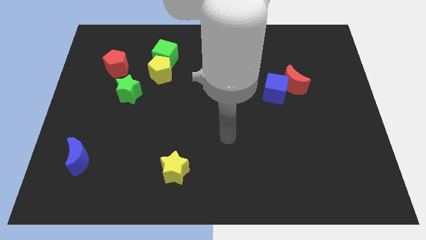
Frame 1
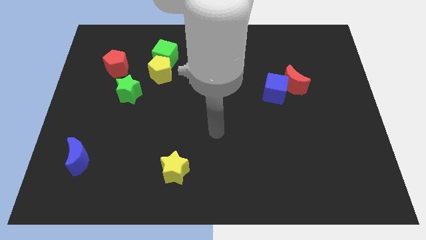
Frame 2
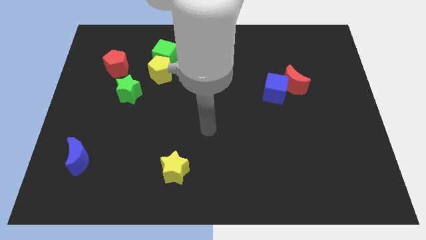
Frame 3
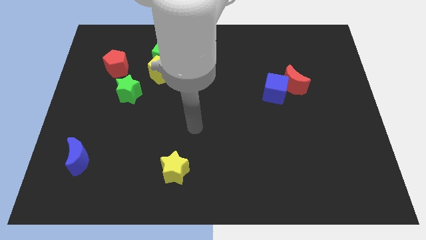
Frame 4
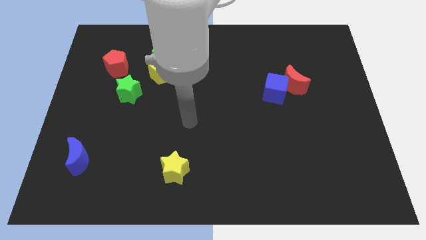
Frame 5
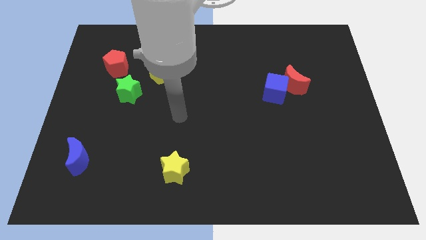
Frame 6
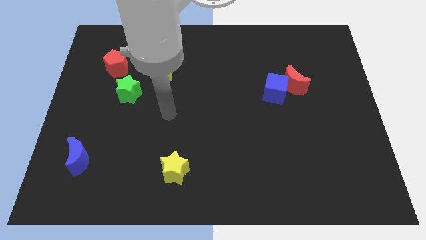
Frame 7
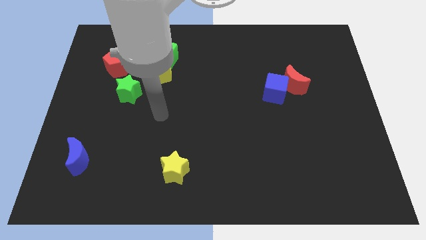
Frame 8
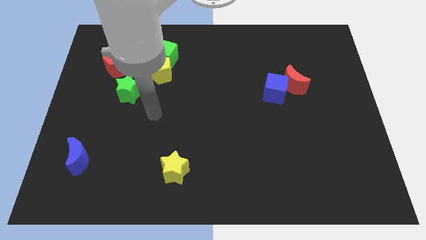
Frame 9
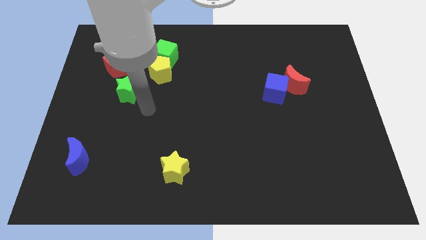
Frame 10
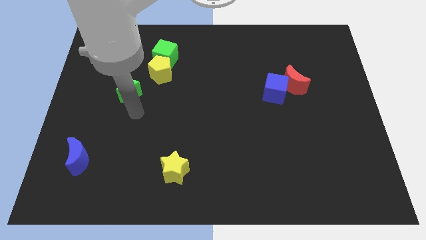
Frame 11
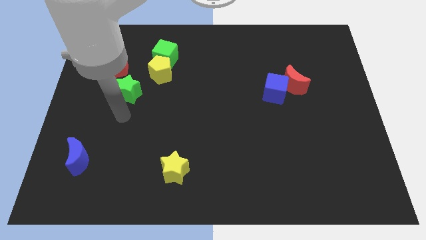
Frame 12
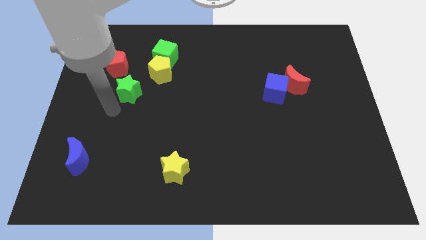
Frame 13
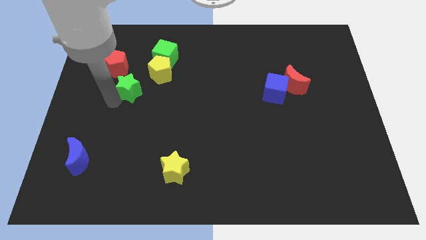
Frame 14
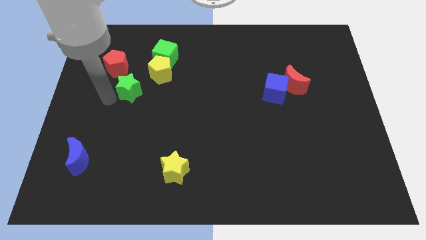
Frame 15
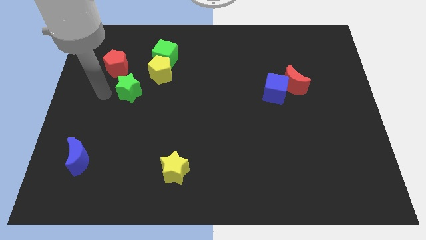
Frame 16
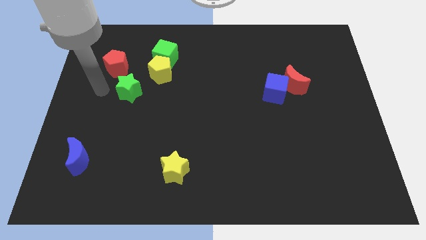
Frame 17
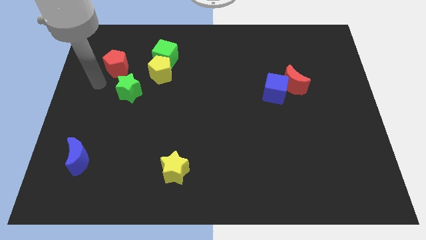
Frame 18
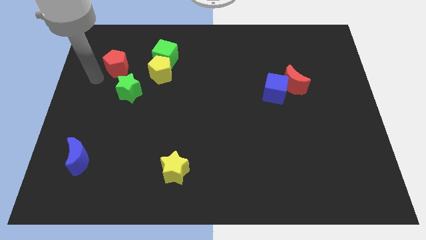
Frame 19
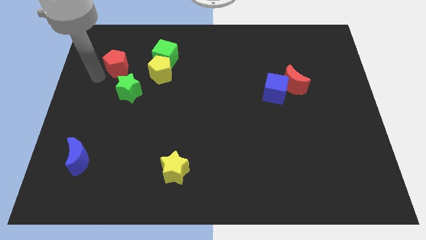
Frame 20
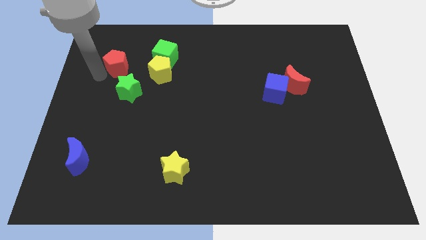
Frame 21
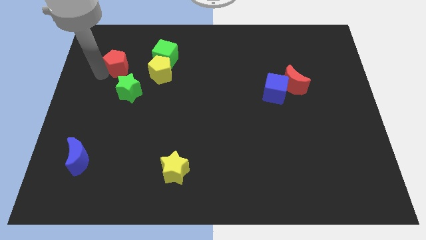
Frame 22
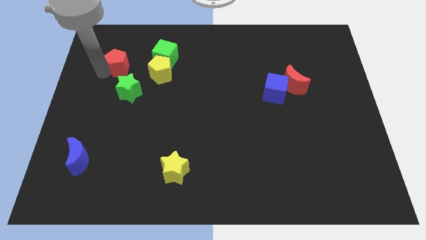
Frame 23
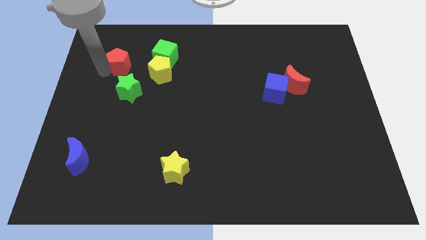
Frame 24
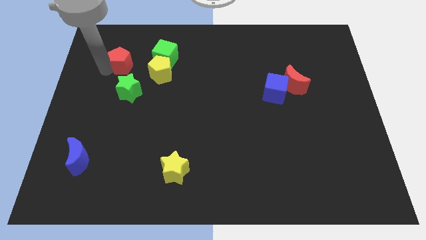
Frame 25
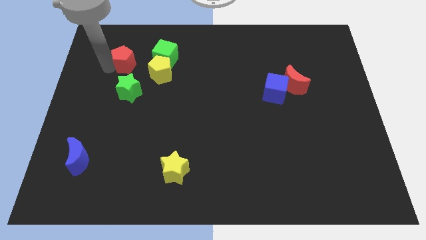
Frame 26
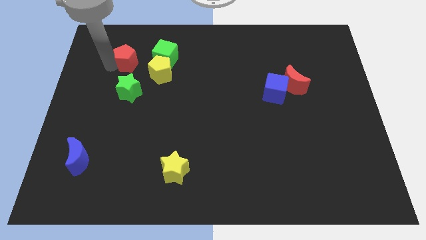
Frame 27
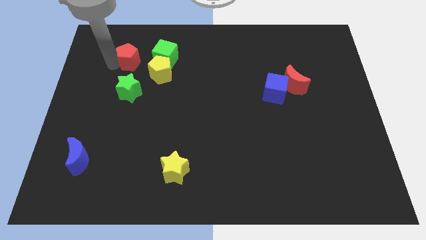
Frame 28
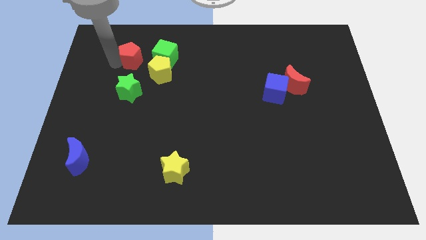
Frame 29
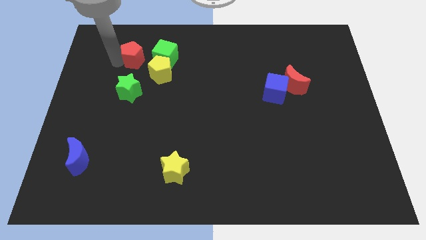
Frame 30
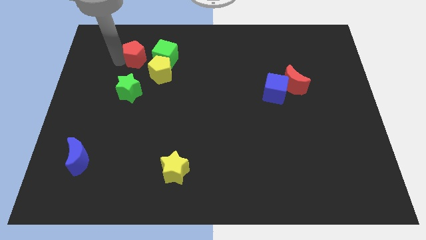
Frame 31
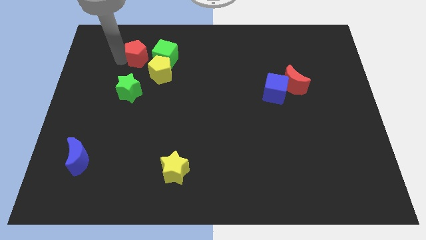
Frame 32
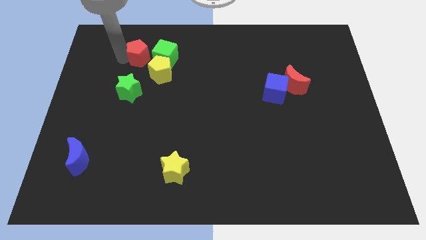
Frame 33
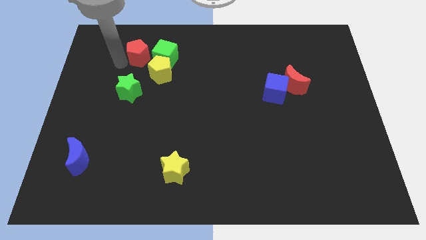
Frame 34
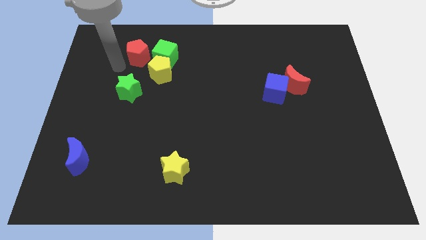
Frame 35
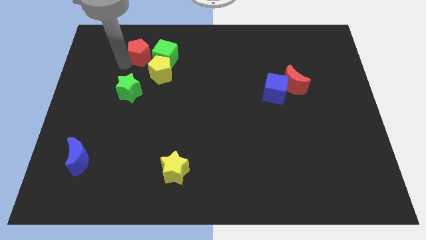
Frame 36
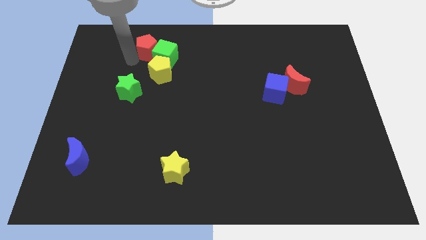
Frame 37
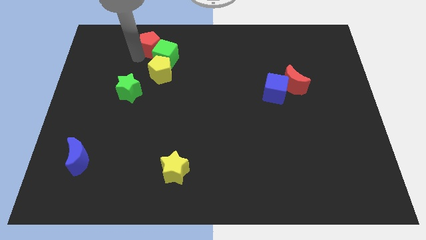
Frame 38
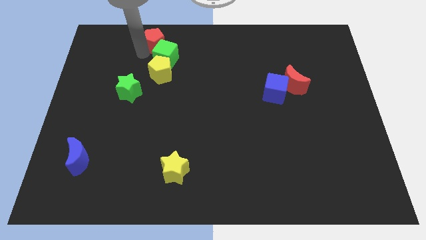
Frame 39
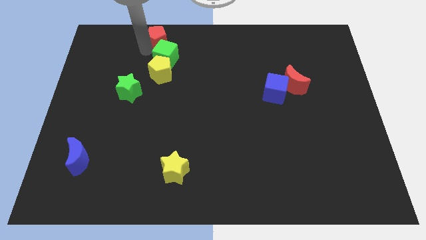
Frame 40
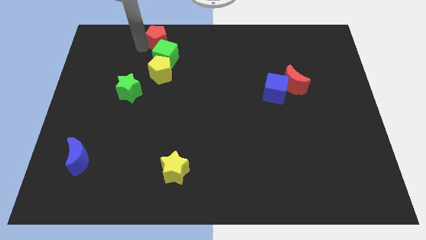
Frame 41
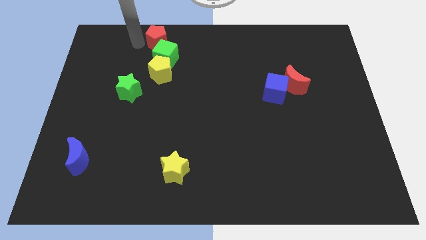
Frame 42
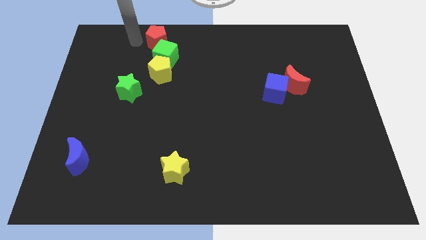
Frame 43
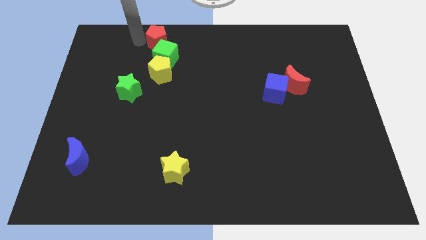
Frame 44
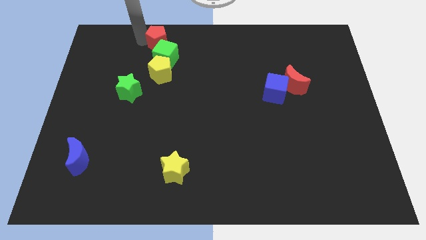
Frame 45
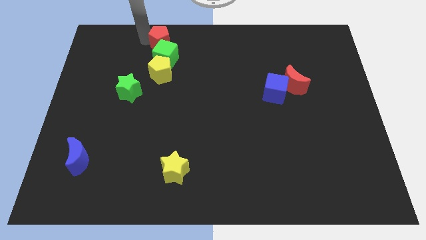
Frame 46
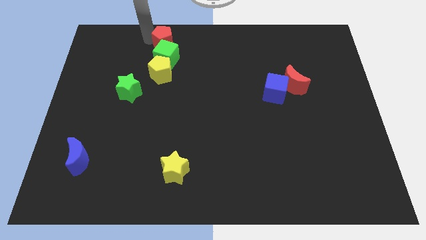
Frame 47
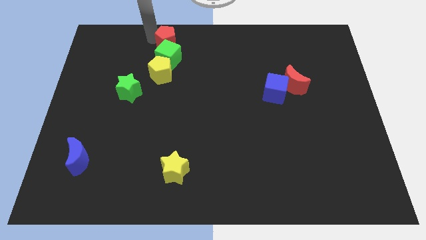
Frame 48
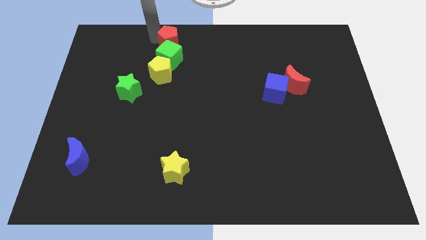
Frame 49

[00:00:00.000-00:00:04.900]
move the red pentagon to the towards your base

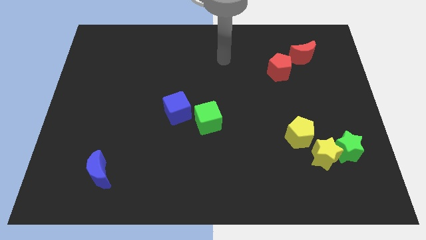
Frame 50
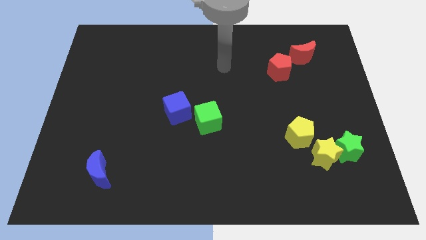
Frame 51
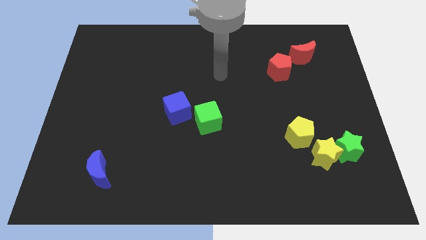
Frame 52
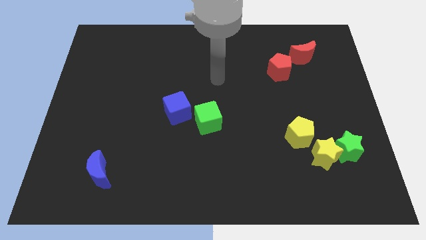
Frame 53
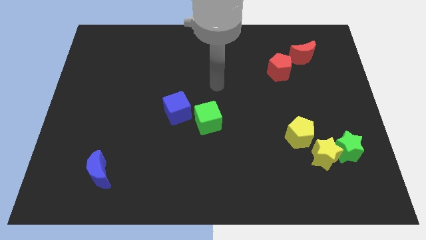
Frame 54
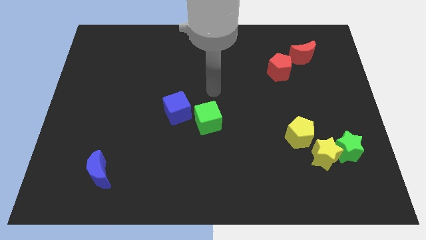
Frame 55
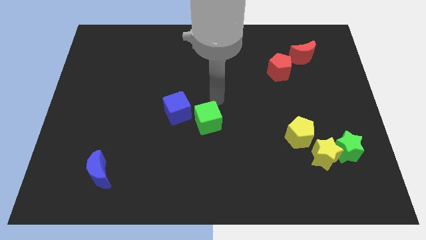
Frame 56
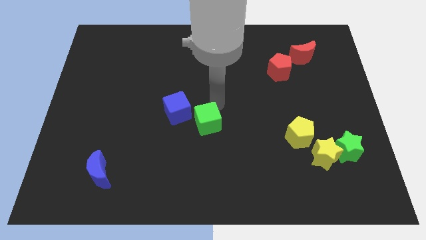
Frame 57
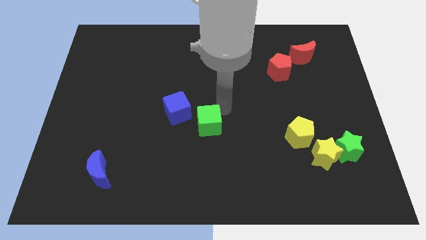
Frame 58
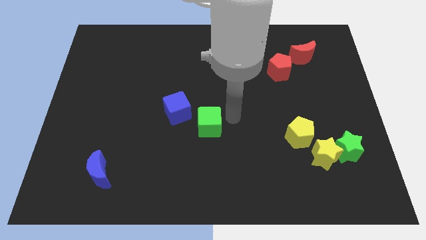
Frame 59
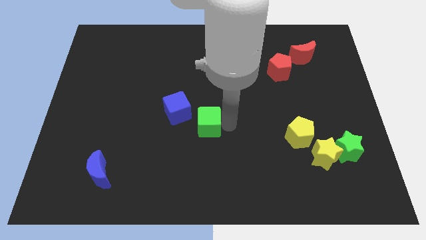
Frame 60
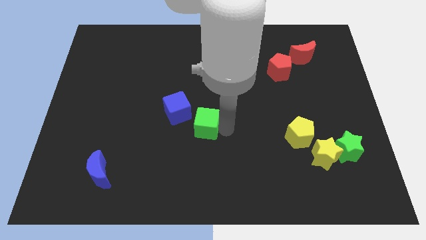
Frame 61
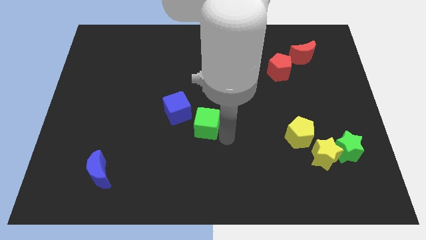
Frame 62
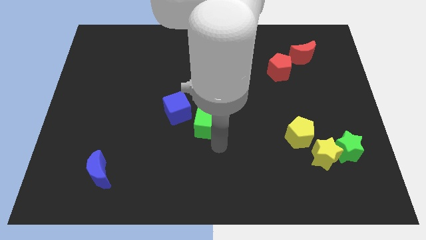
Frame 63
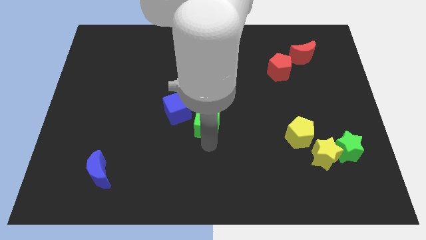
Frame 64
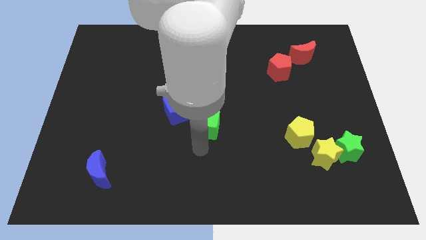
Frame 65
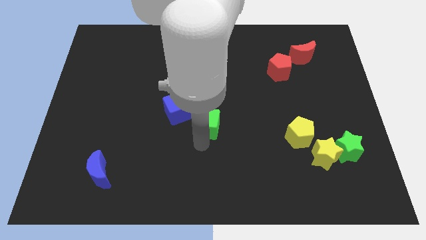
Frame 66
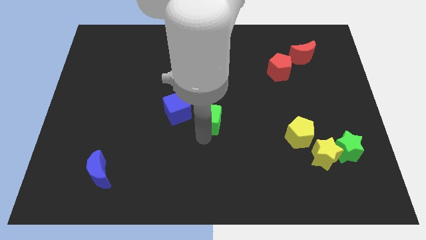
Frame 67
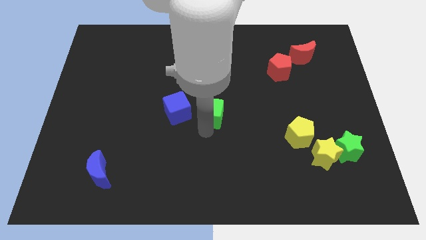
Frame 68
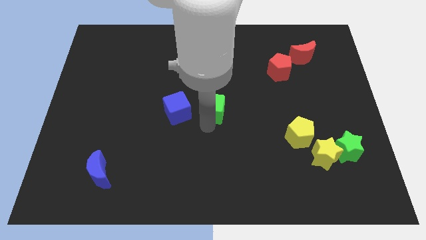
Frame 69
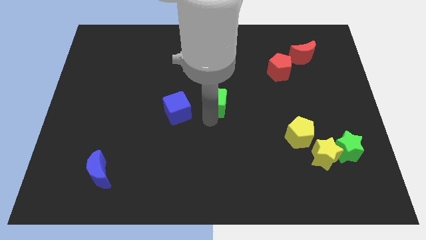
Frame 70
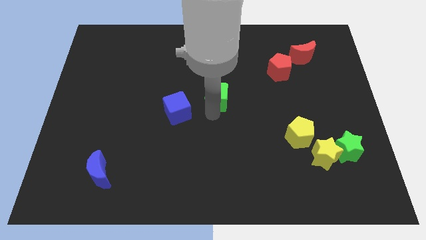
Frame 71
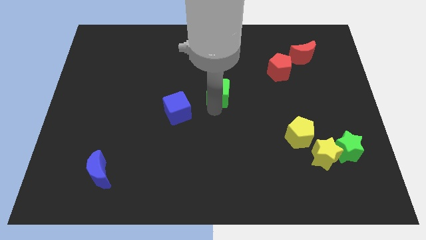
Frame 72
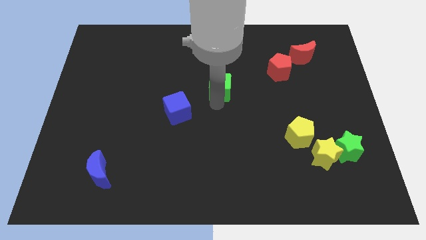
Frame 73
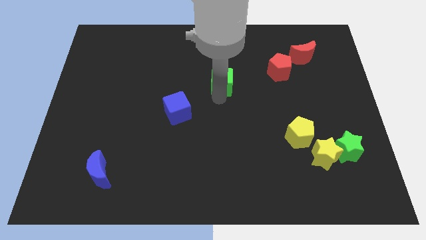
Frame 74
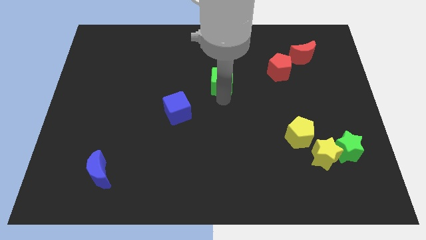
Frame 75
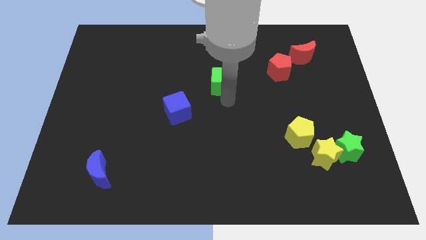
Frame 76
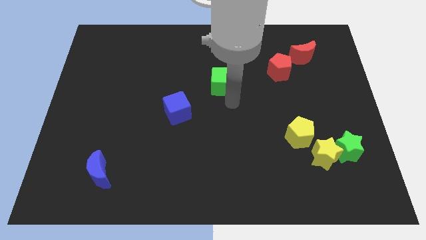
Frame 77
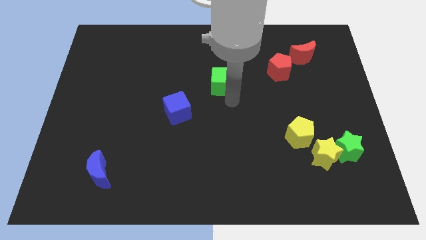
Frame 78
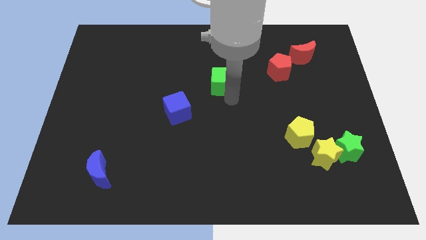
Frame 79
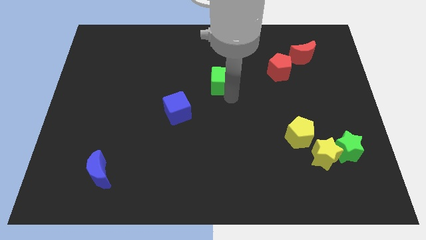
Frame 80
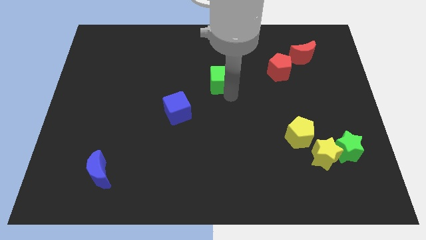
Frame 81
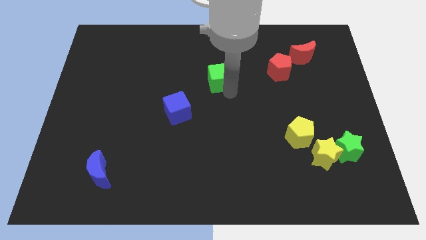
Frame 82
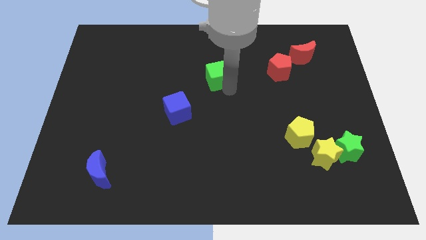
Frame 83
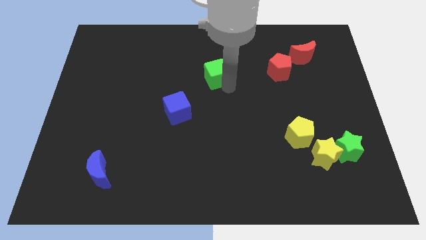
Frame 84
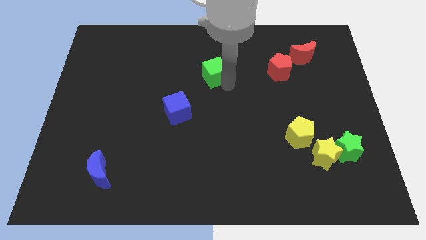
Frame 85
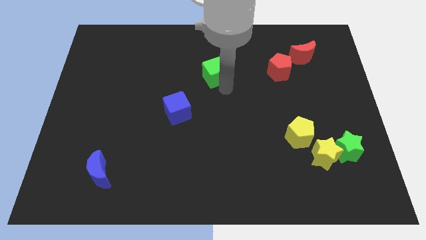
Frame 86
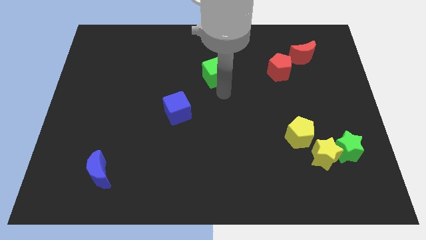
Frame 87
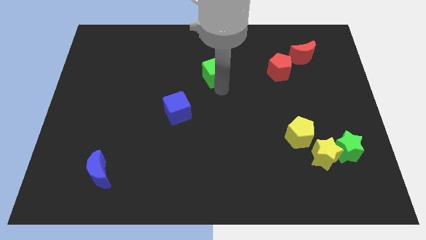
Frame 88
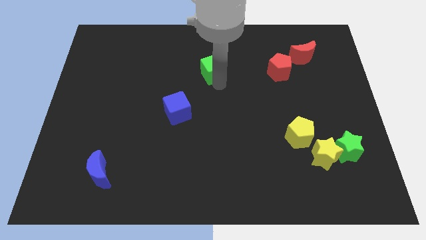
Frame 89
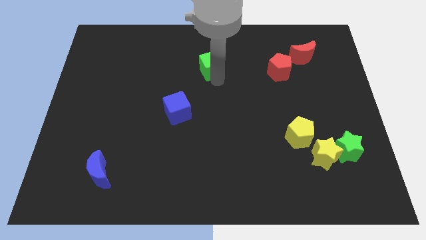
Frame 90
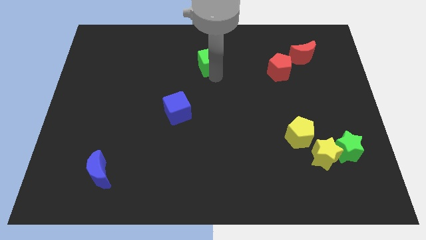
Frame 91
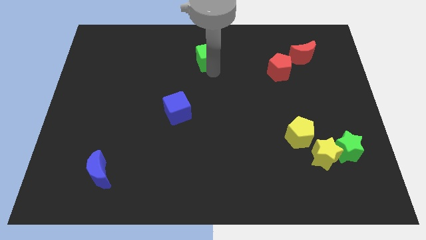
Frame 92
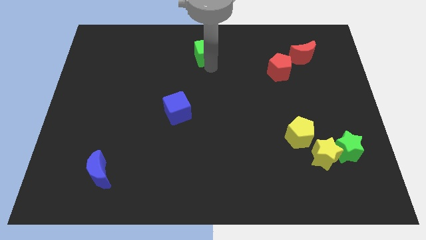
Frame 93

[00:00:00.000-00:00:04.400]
slide the green cube to the top
